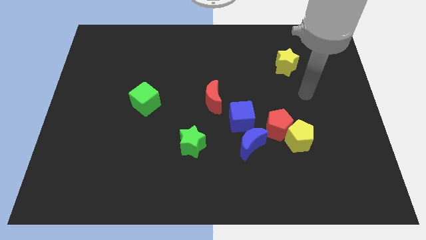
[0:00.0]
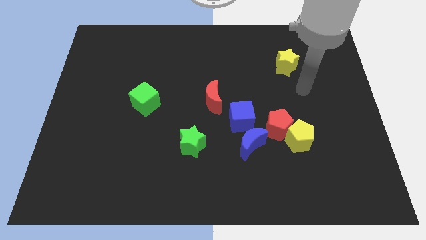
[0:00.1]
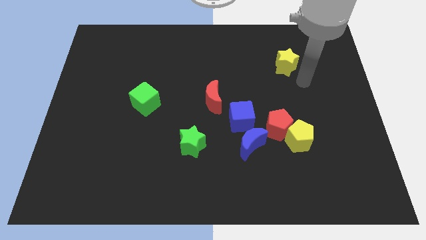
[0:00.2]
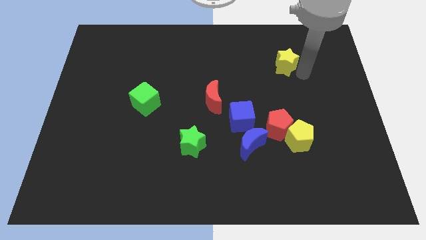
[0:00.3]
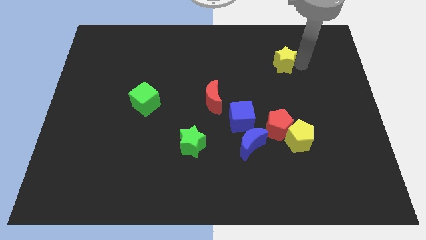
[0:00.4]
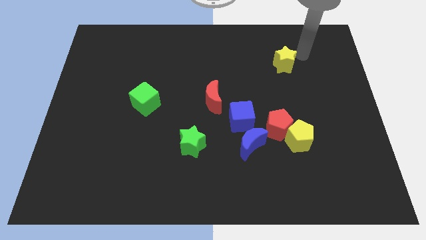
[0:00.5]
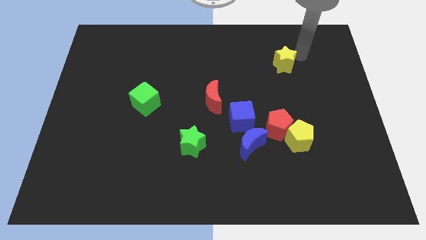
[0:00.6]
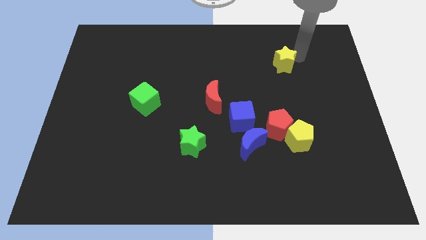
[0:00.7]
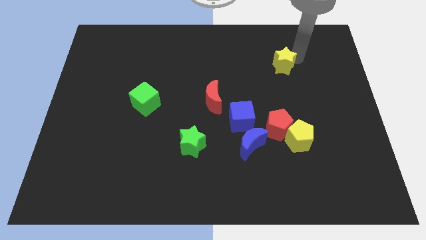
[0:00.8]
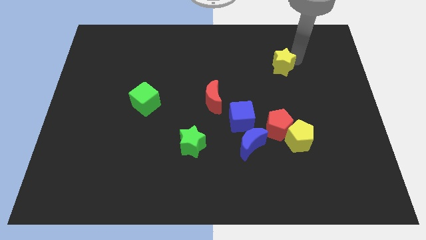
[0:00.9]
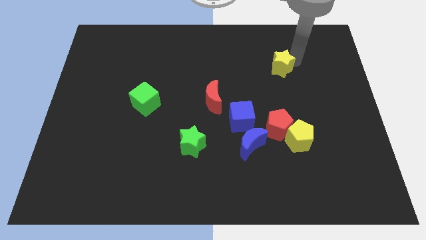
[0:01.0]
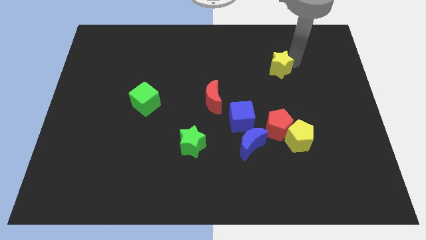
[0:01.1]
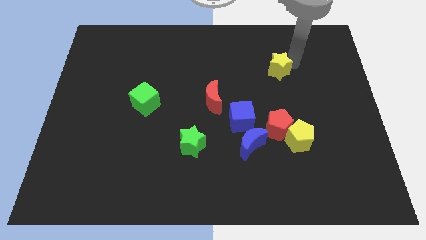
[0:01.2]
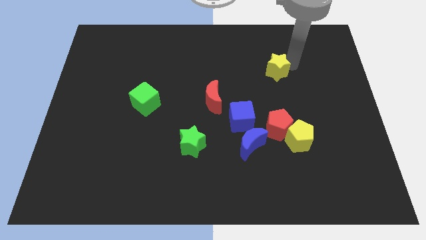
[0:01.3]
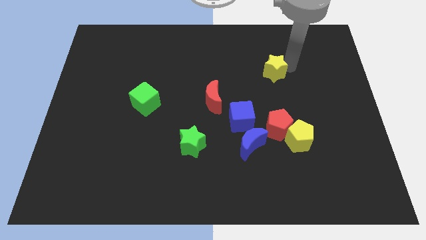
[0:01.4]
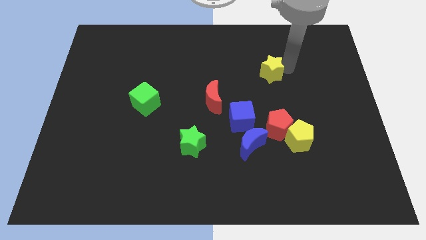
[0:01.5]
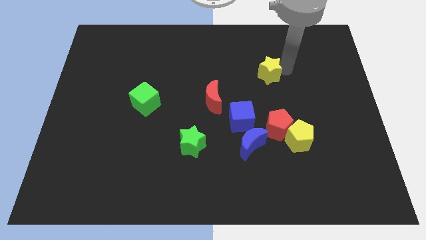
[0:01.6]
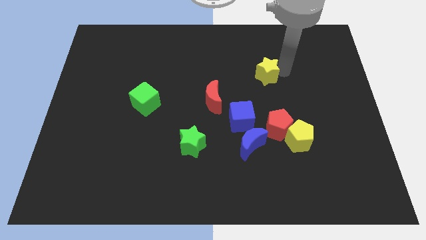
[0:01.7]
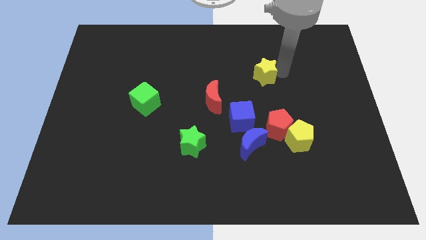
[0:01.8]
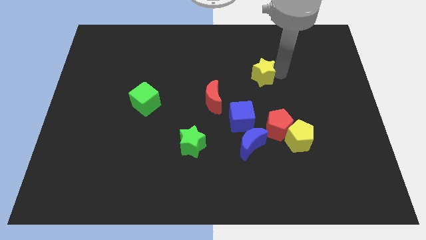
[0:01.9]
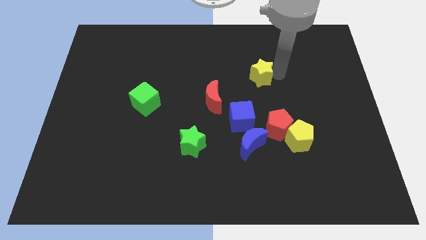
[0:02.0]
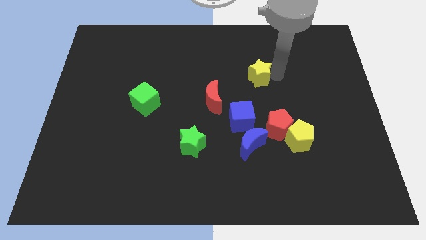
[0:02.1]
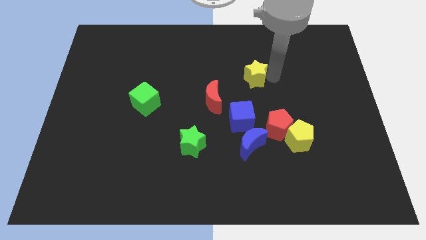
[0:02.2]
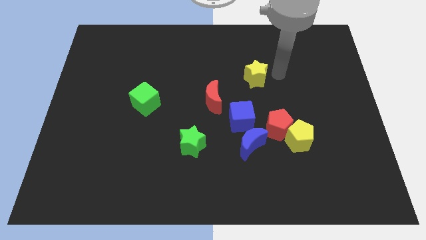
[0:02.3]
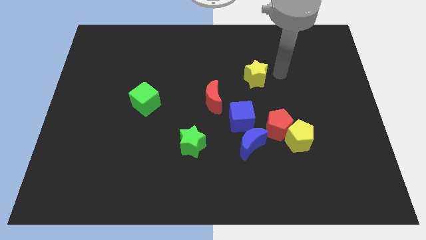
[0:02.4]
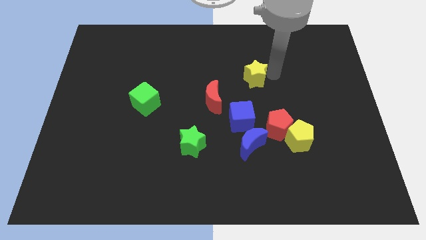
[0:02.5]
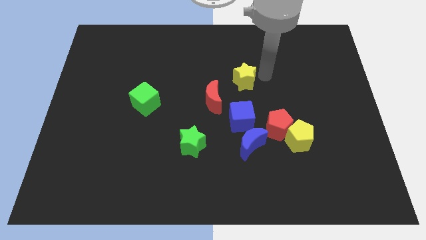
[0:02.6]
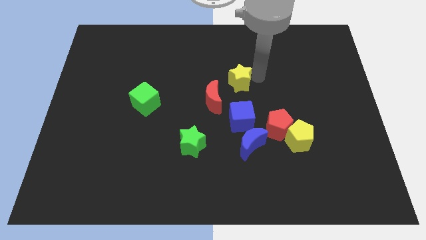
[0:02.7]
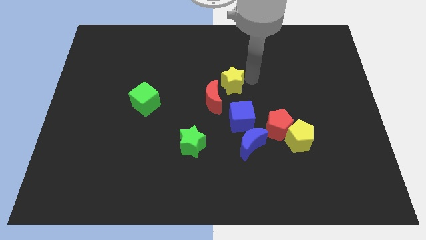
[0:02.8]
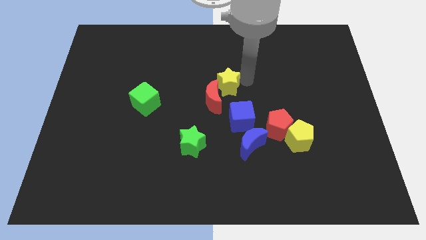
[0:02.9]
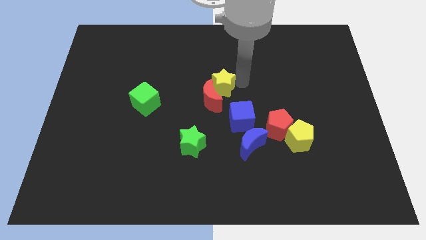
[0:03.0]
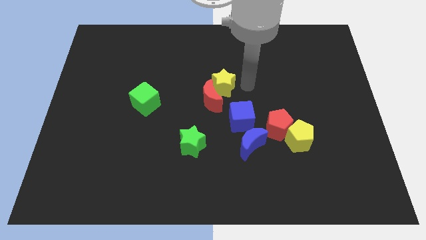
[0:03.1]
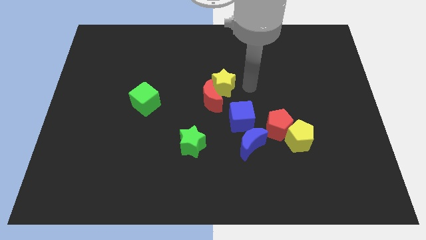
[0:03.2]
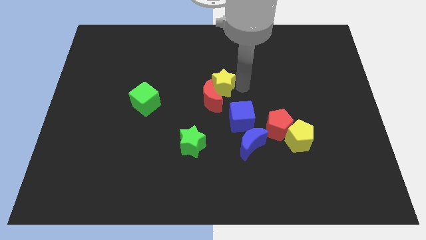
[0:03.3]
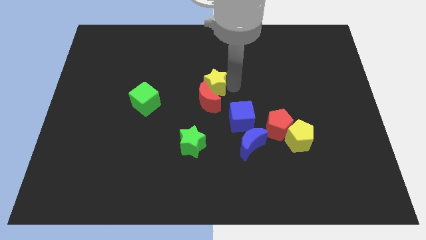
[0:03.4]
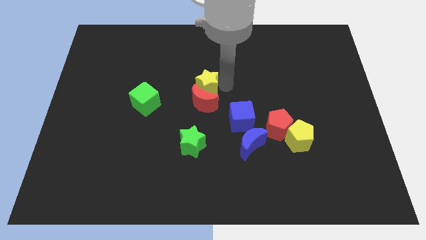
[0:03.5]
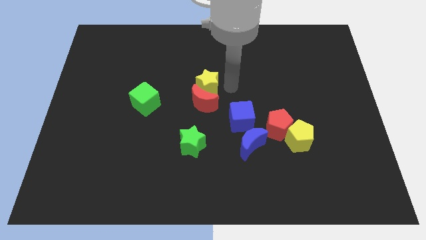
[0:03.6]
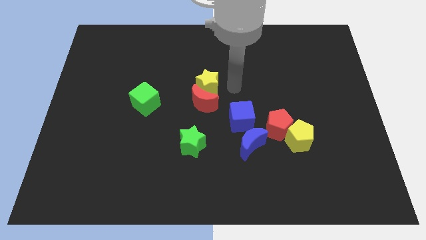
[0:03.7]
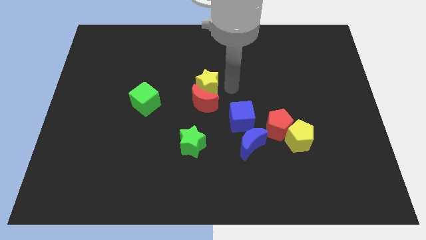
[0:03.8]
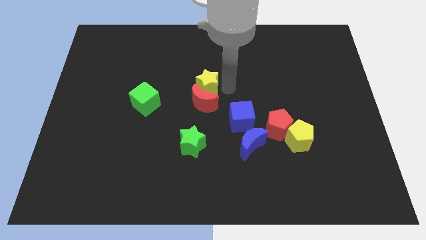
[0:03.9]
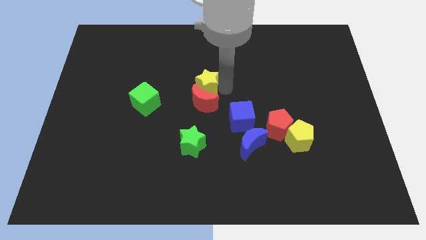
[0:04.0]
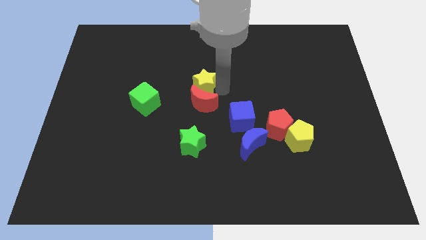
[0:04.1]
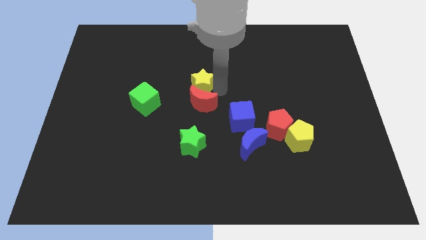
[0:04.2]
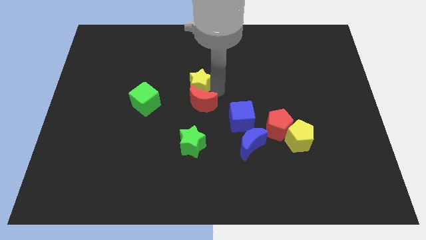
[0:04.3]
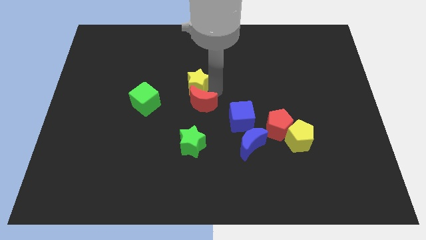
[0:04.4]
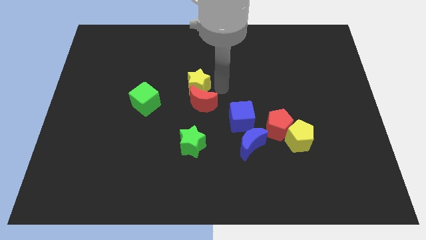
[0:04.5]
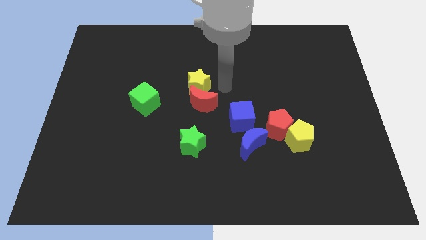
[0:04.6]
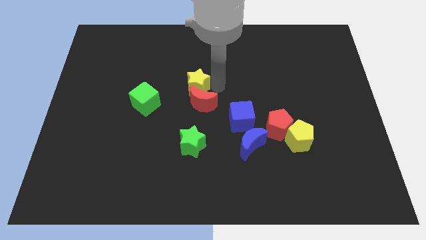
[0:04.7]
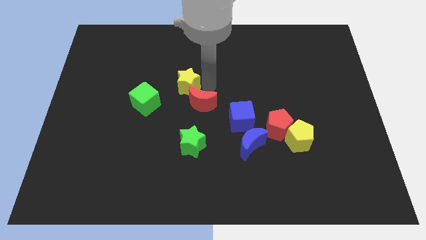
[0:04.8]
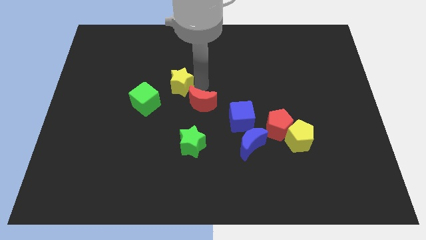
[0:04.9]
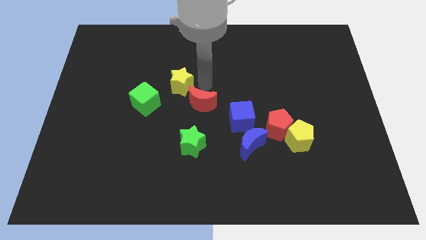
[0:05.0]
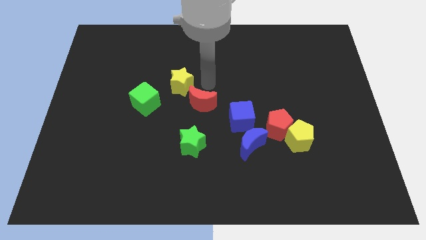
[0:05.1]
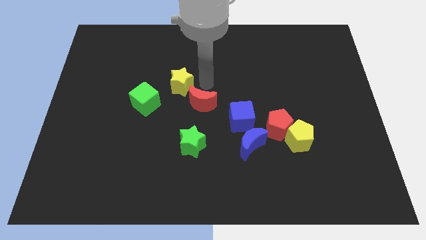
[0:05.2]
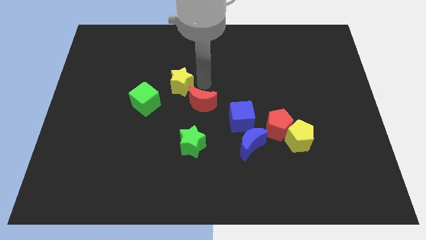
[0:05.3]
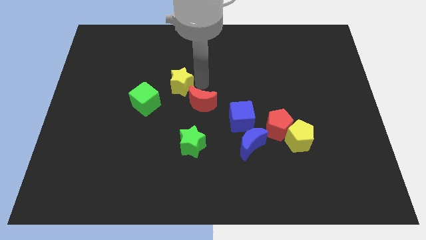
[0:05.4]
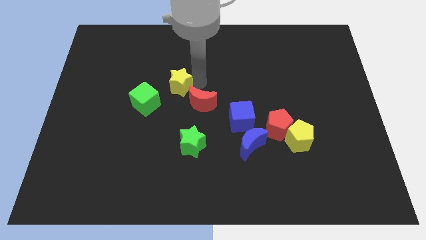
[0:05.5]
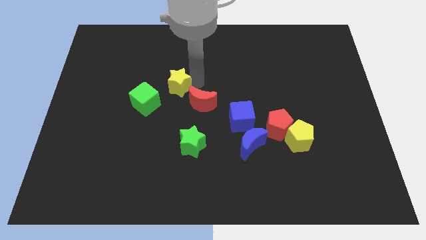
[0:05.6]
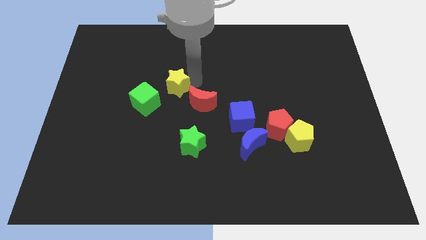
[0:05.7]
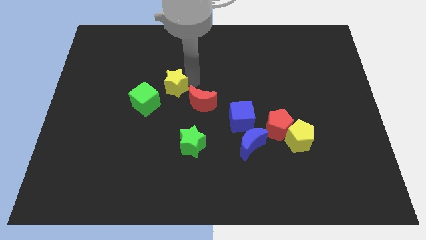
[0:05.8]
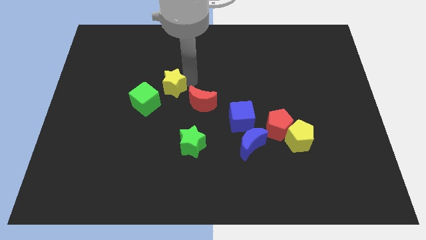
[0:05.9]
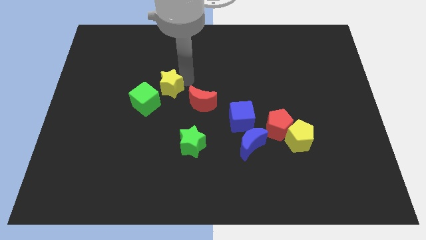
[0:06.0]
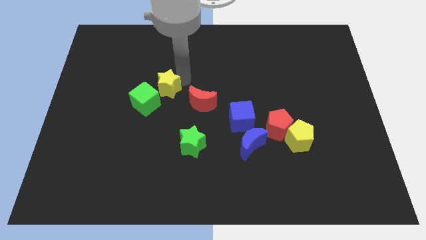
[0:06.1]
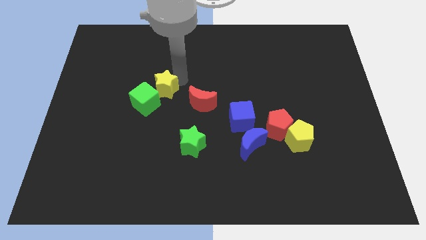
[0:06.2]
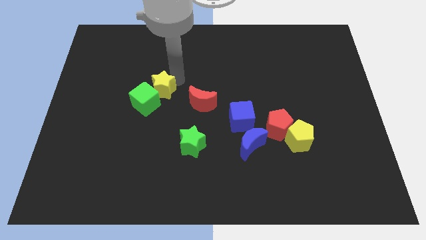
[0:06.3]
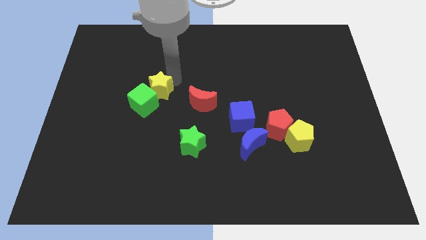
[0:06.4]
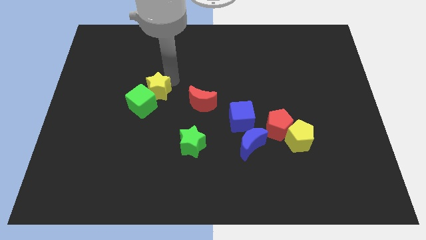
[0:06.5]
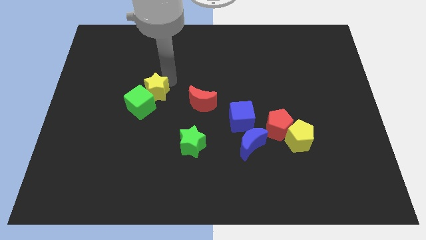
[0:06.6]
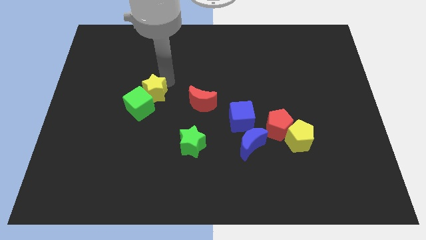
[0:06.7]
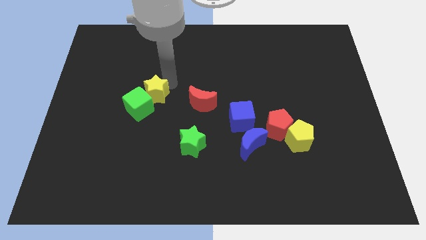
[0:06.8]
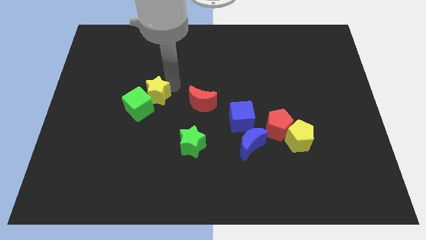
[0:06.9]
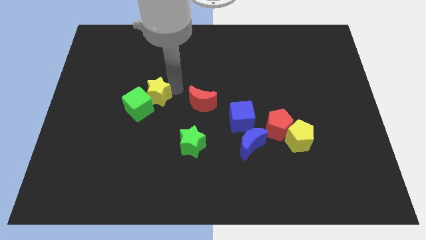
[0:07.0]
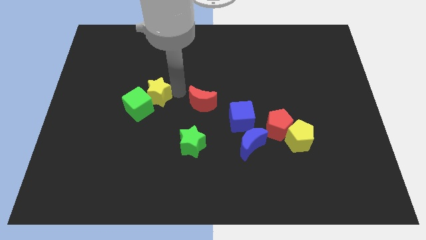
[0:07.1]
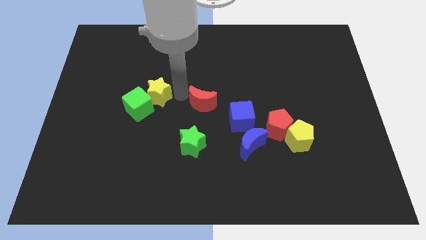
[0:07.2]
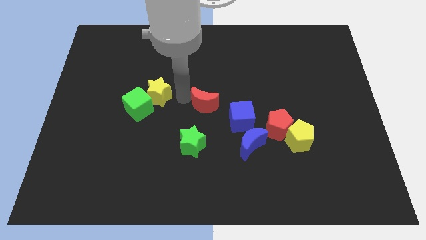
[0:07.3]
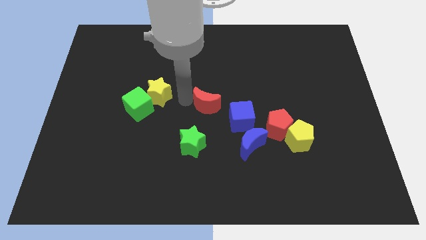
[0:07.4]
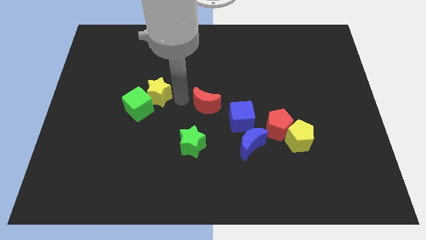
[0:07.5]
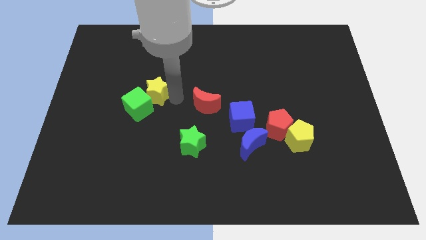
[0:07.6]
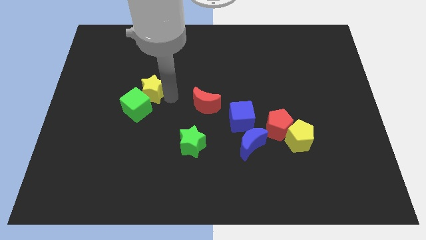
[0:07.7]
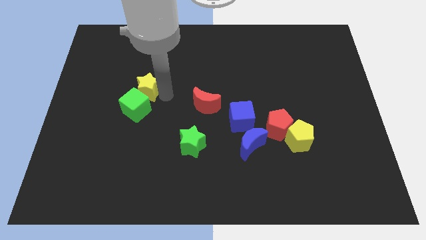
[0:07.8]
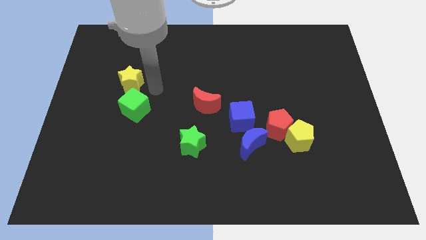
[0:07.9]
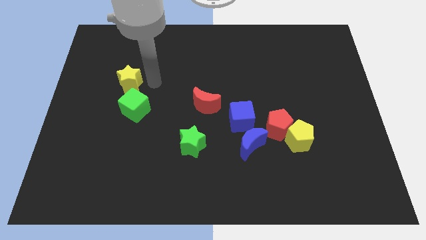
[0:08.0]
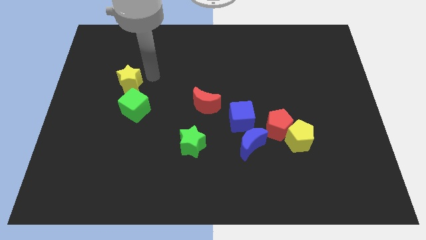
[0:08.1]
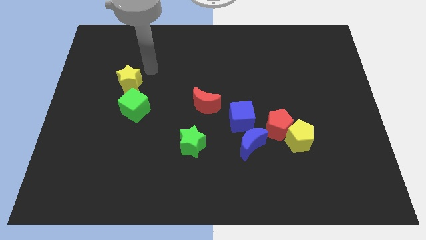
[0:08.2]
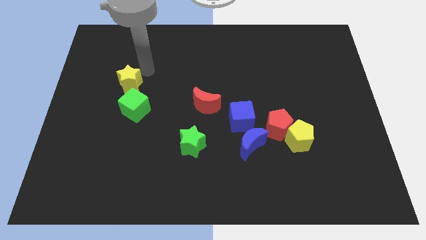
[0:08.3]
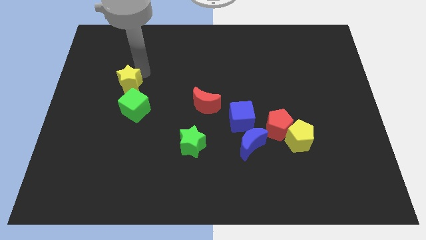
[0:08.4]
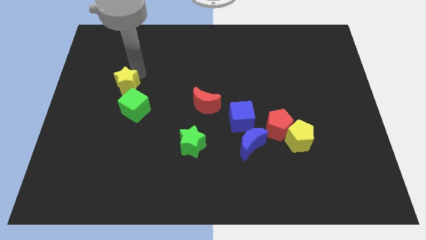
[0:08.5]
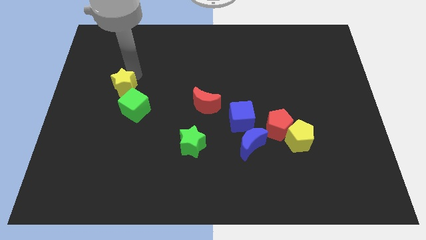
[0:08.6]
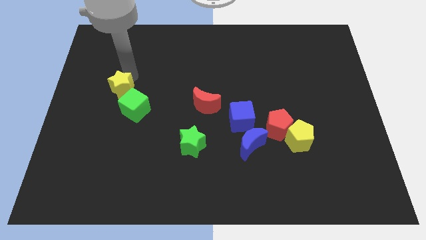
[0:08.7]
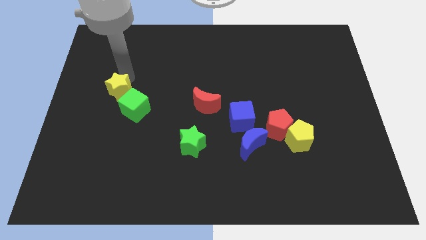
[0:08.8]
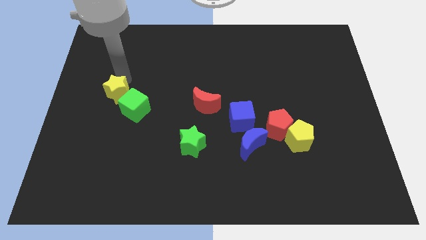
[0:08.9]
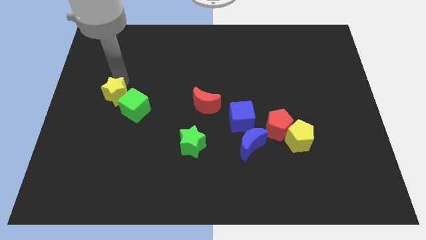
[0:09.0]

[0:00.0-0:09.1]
slide the yellow star to the left side of the green cube
